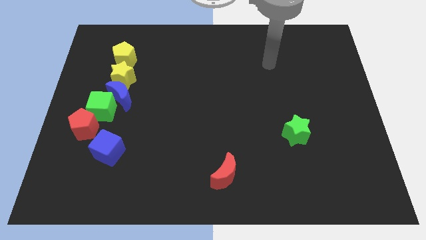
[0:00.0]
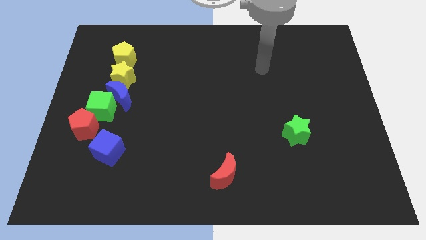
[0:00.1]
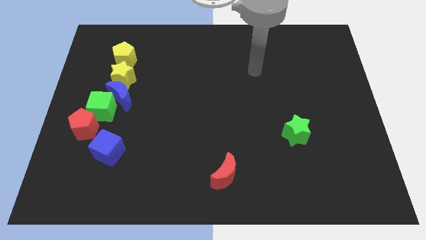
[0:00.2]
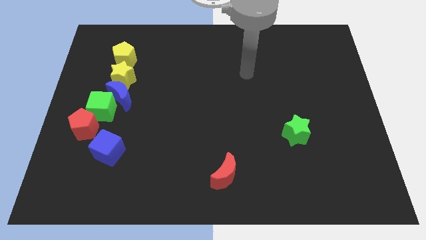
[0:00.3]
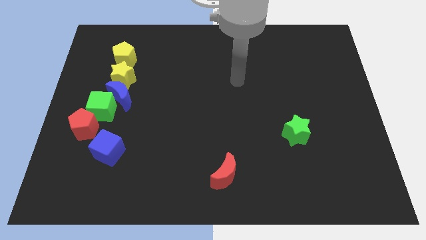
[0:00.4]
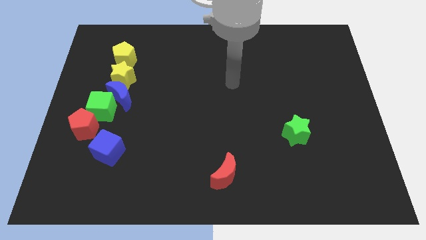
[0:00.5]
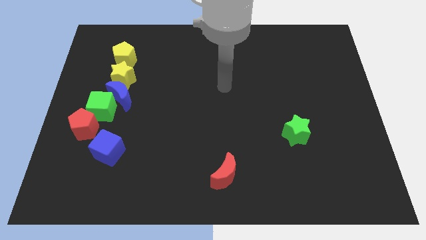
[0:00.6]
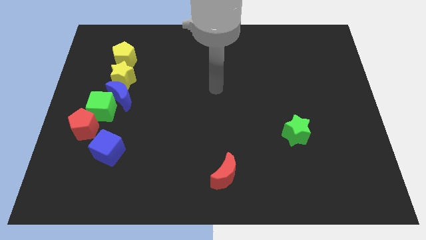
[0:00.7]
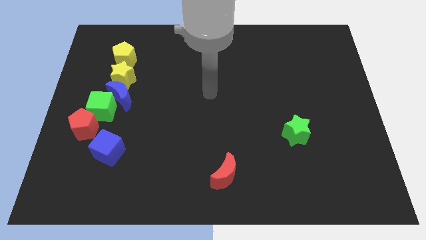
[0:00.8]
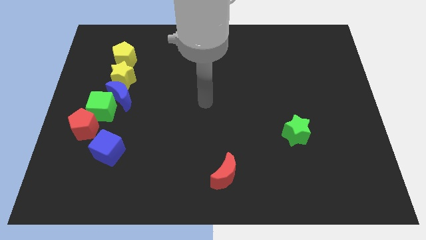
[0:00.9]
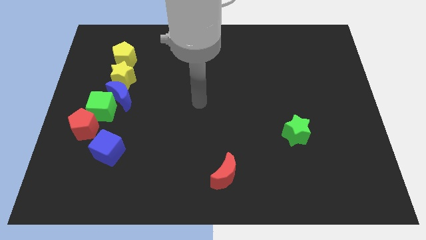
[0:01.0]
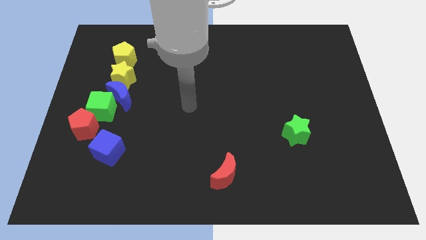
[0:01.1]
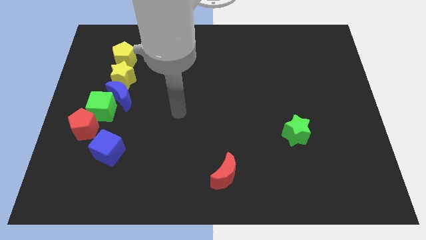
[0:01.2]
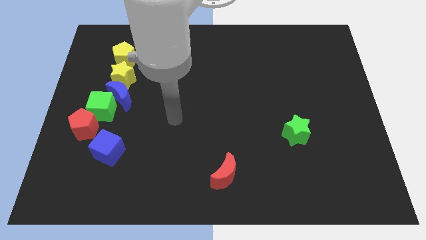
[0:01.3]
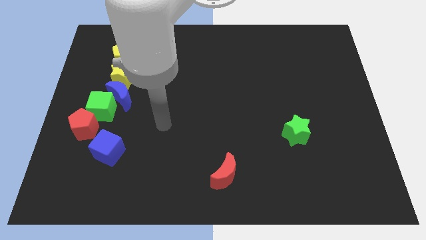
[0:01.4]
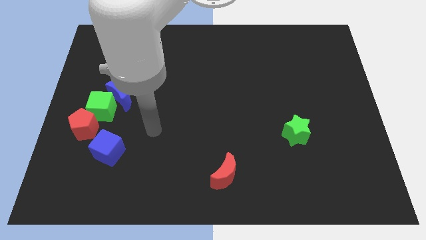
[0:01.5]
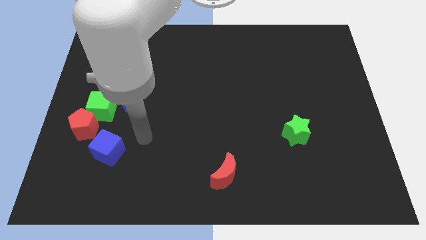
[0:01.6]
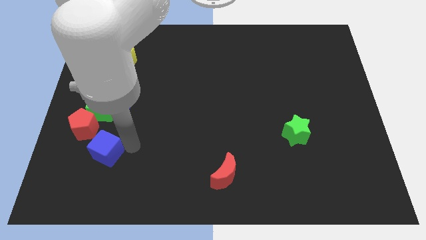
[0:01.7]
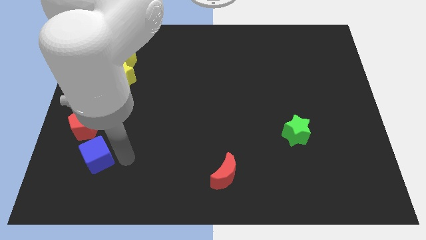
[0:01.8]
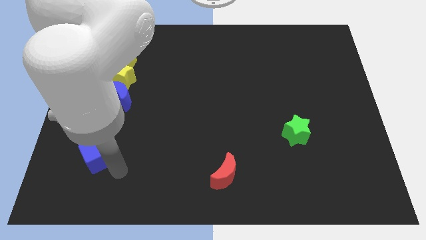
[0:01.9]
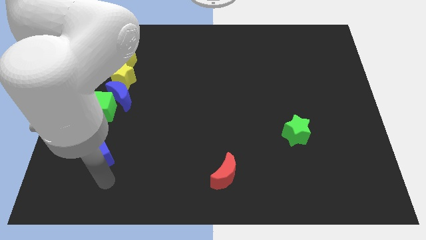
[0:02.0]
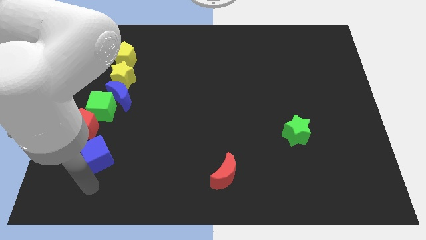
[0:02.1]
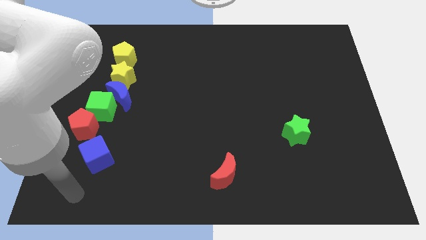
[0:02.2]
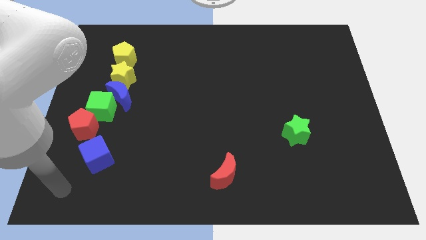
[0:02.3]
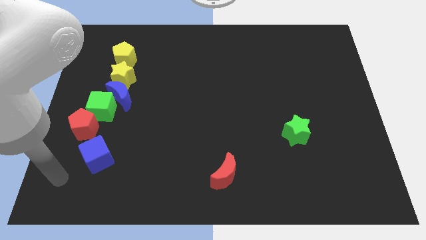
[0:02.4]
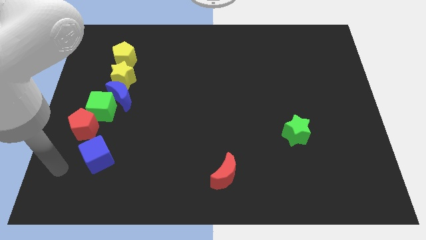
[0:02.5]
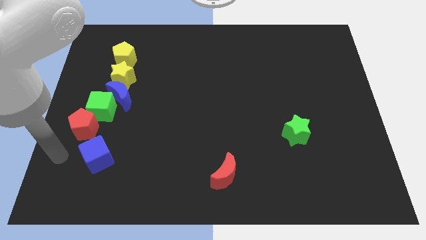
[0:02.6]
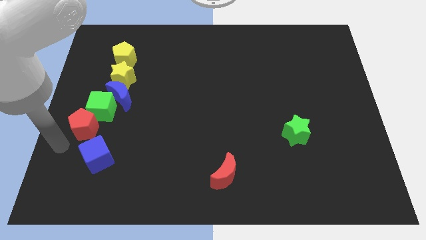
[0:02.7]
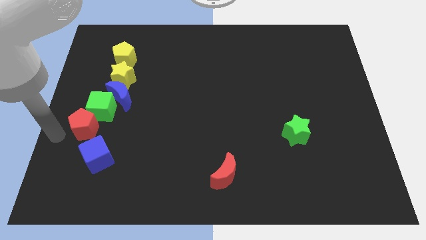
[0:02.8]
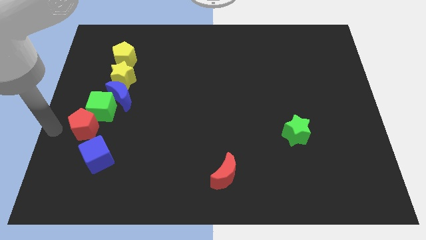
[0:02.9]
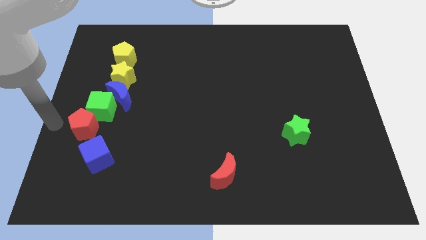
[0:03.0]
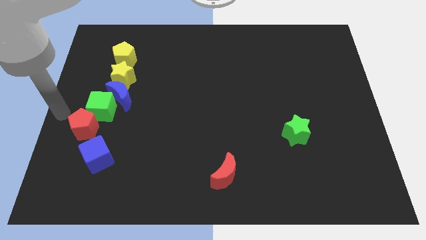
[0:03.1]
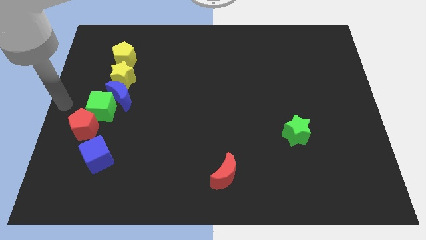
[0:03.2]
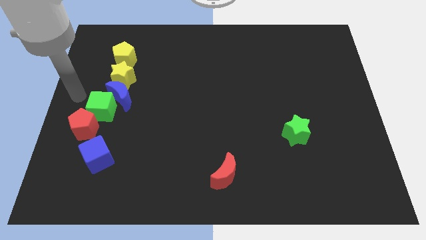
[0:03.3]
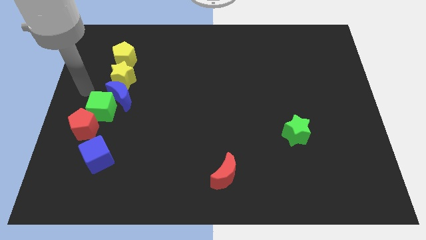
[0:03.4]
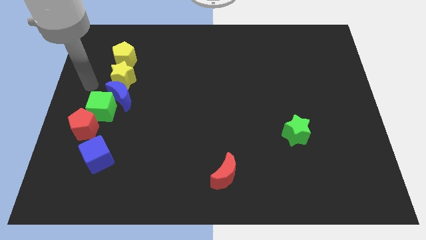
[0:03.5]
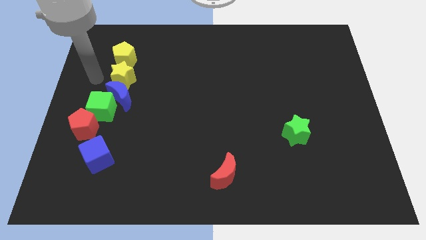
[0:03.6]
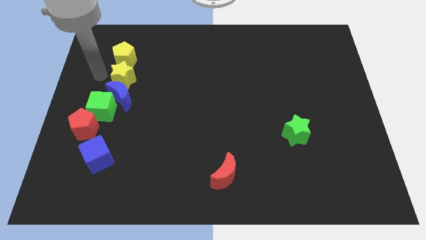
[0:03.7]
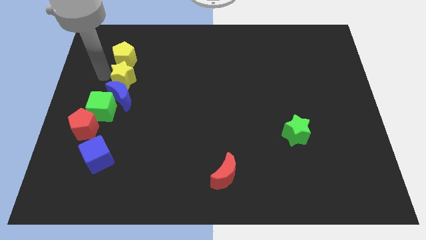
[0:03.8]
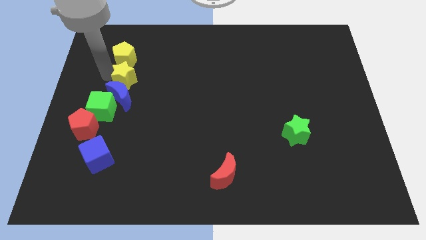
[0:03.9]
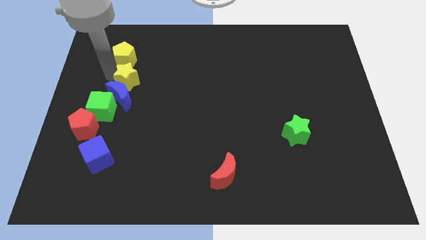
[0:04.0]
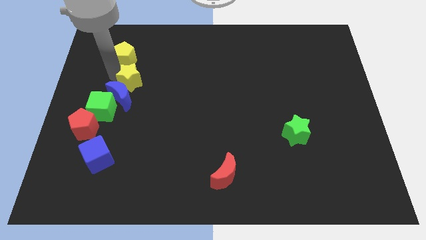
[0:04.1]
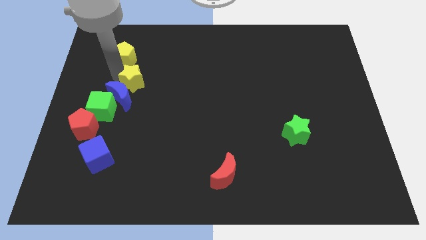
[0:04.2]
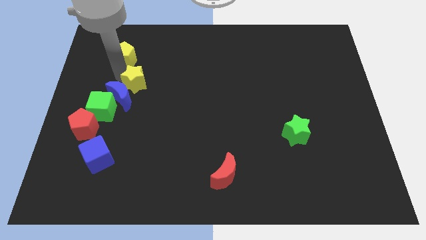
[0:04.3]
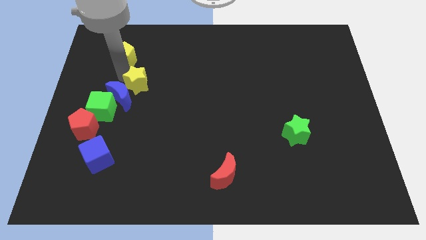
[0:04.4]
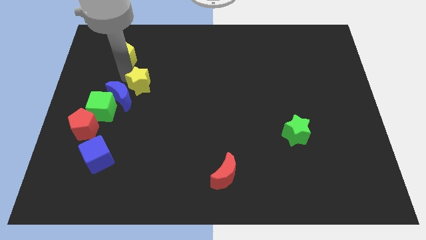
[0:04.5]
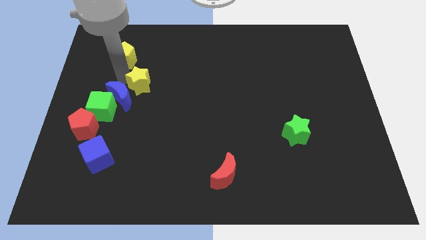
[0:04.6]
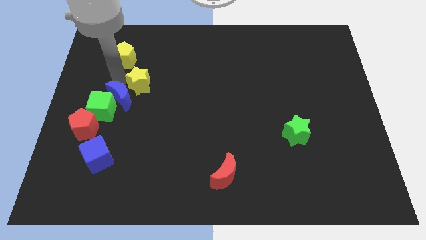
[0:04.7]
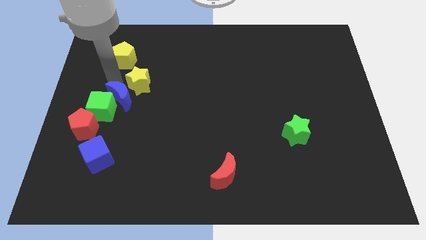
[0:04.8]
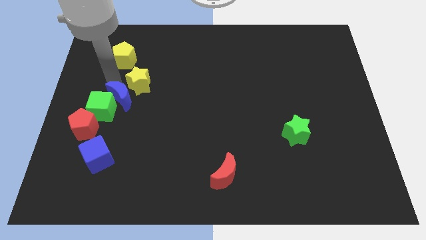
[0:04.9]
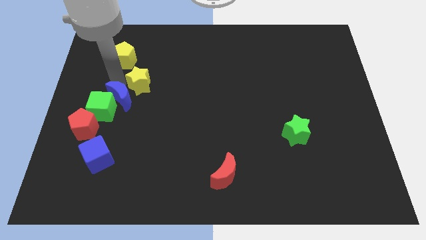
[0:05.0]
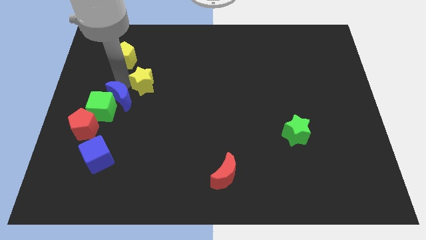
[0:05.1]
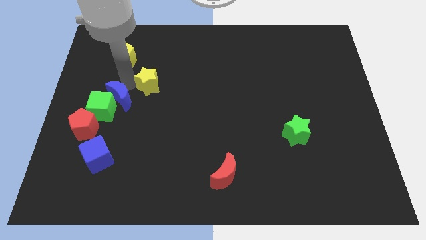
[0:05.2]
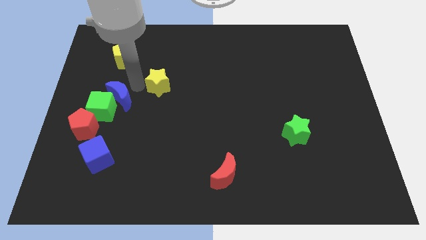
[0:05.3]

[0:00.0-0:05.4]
slightly slide the yellow star to the right

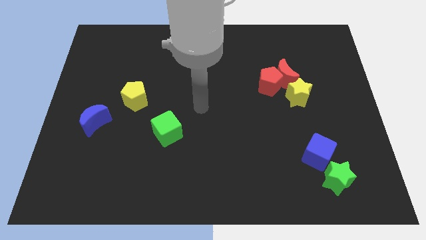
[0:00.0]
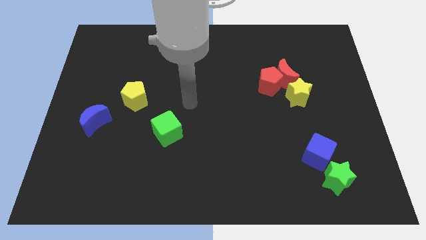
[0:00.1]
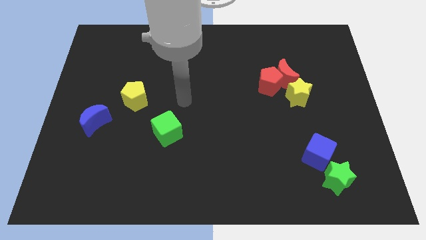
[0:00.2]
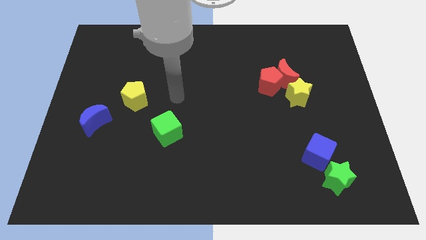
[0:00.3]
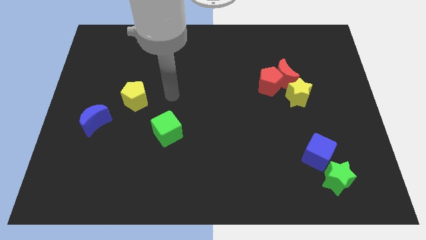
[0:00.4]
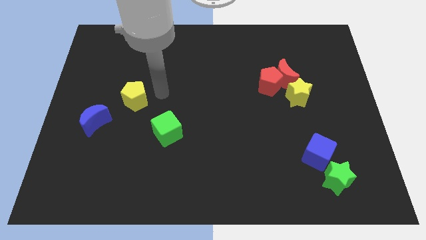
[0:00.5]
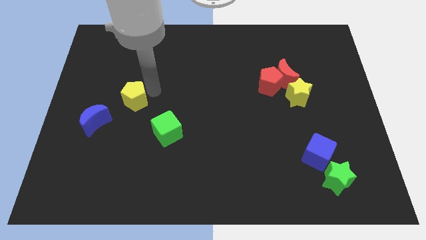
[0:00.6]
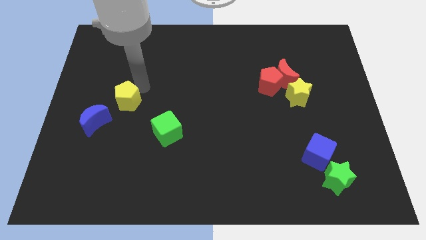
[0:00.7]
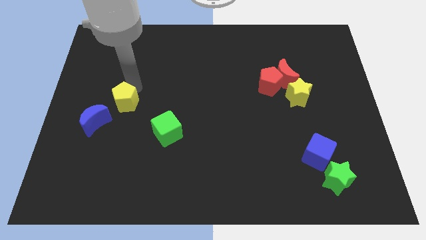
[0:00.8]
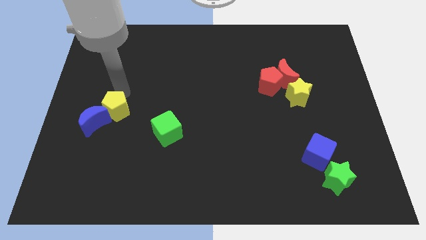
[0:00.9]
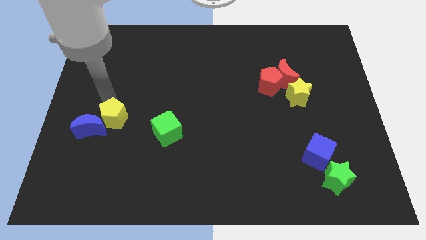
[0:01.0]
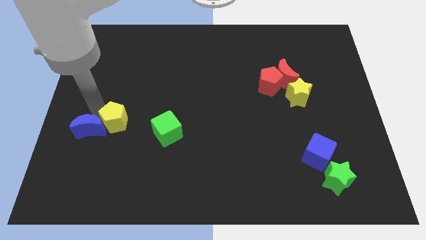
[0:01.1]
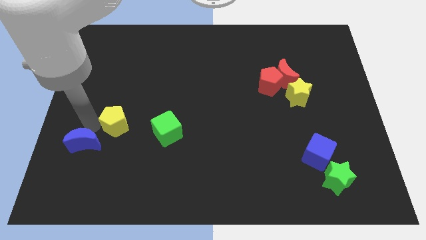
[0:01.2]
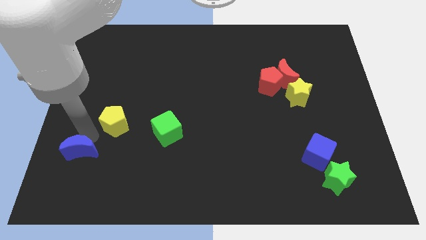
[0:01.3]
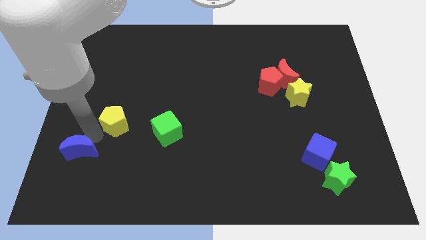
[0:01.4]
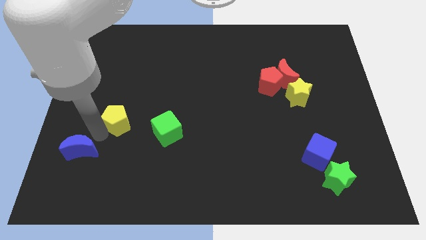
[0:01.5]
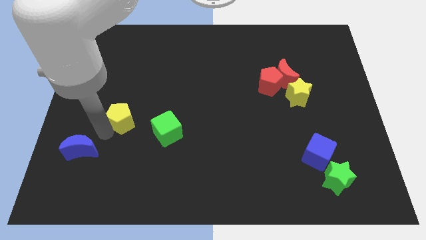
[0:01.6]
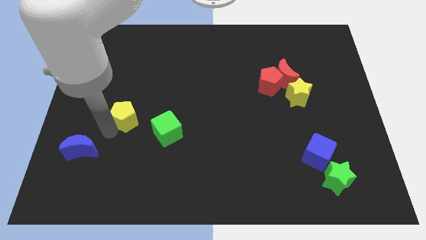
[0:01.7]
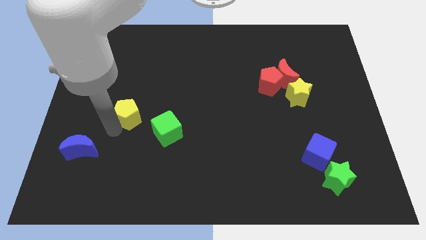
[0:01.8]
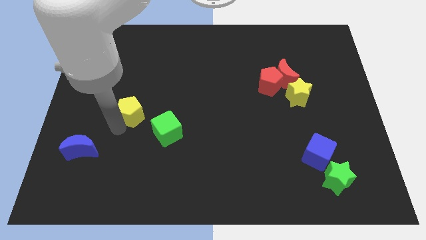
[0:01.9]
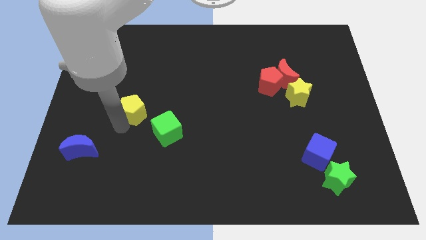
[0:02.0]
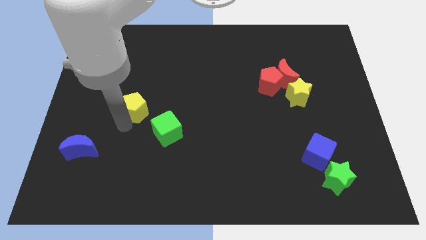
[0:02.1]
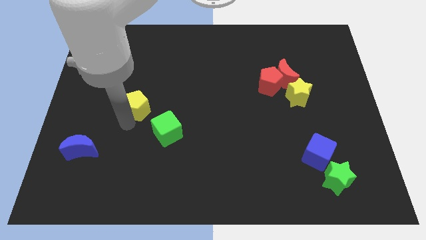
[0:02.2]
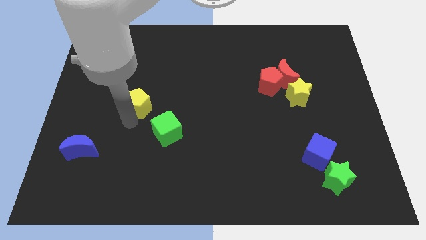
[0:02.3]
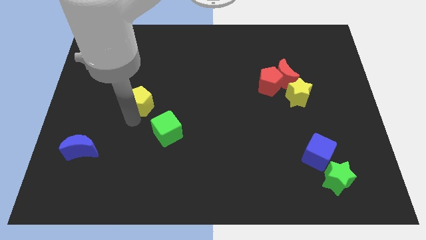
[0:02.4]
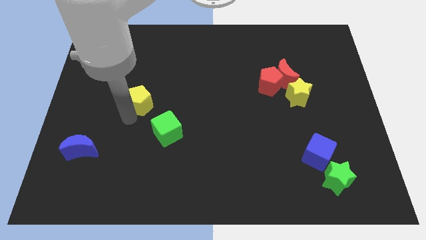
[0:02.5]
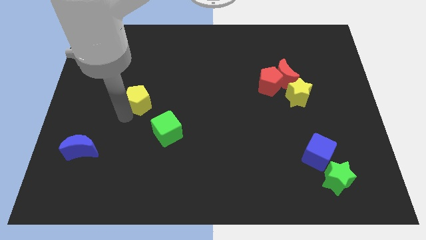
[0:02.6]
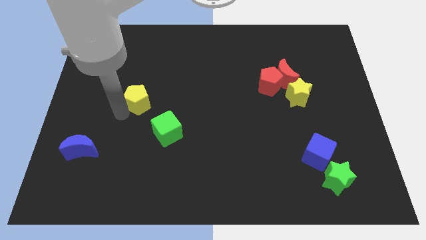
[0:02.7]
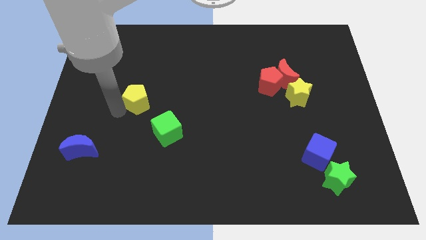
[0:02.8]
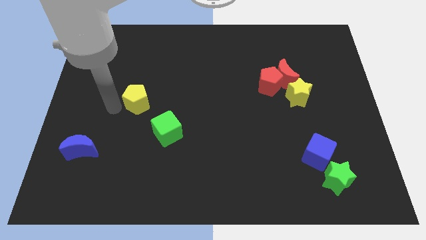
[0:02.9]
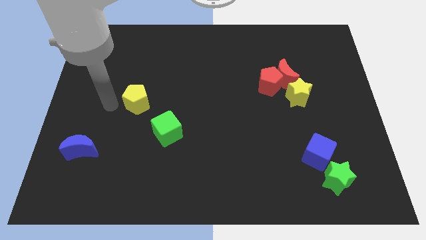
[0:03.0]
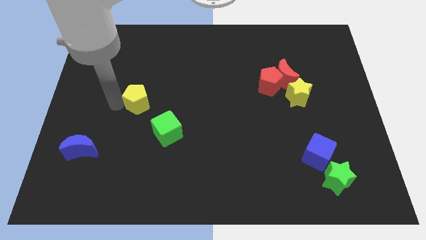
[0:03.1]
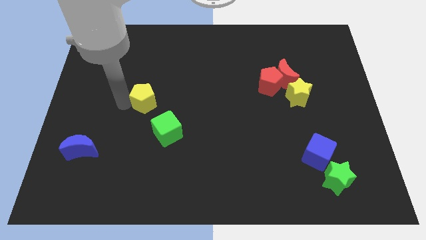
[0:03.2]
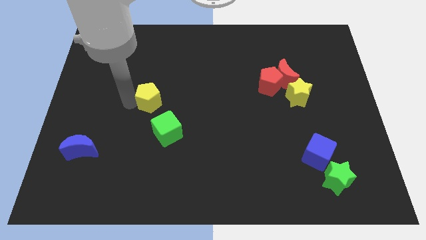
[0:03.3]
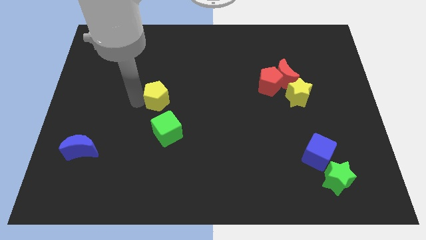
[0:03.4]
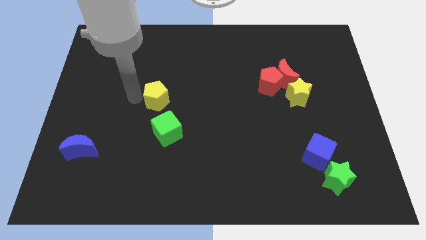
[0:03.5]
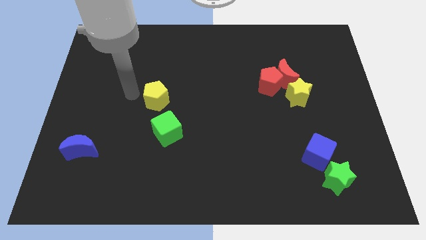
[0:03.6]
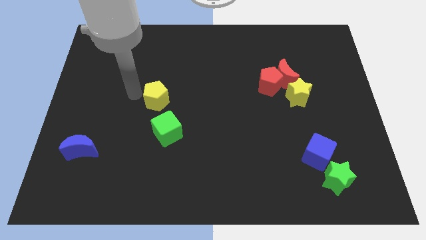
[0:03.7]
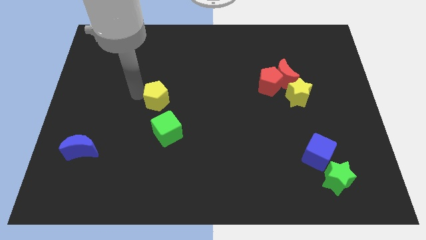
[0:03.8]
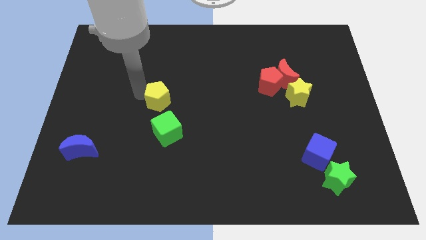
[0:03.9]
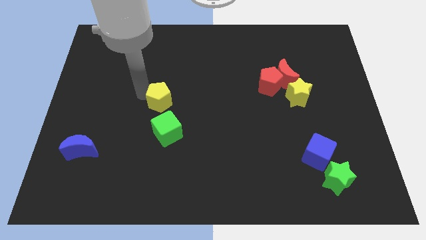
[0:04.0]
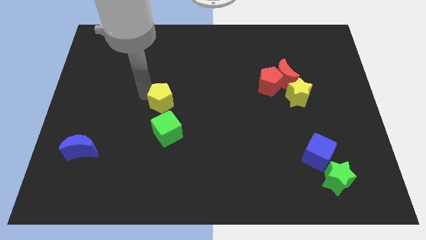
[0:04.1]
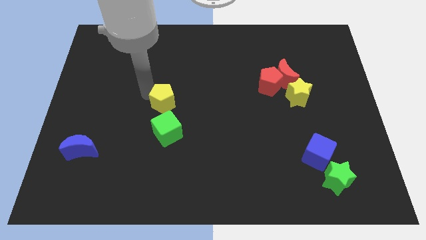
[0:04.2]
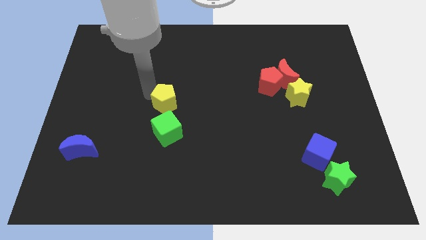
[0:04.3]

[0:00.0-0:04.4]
move the yellow pentagon a bit to the right
